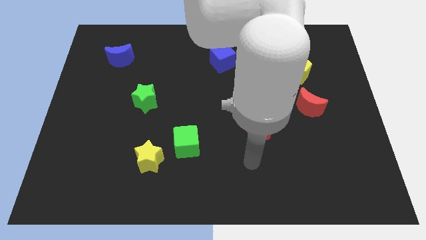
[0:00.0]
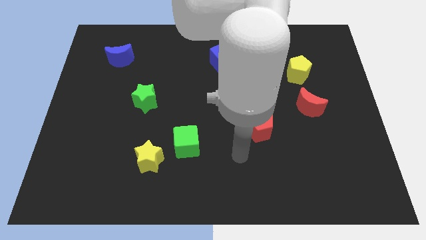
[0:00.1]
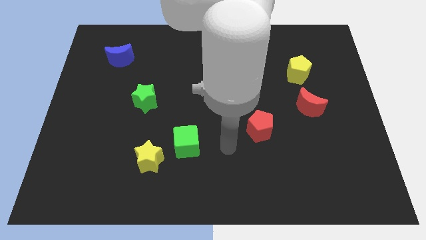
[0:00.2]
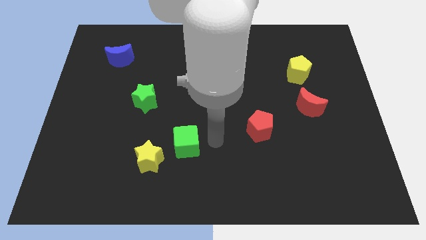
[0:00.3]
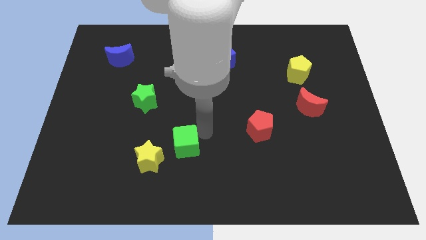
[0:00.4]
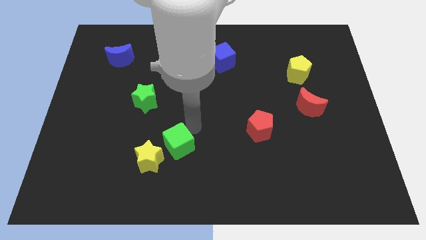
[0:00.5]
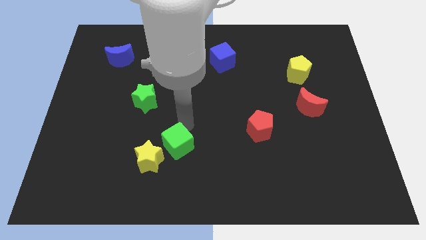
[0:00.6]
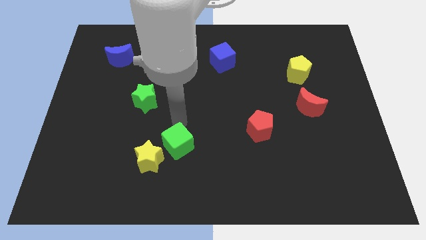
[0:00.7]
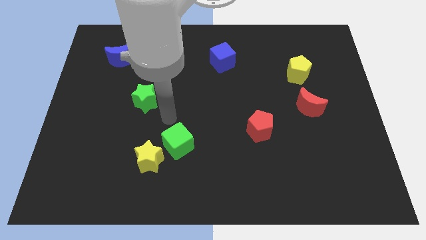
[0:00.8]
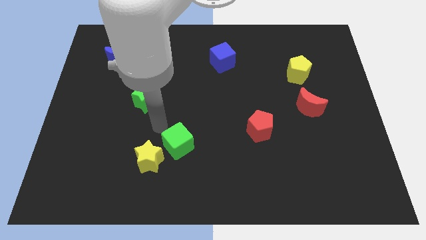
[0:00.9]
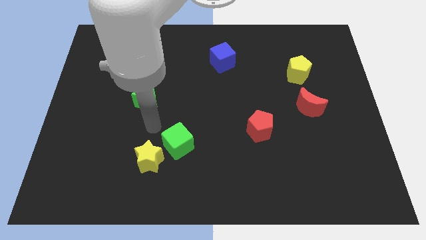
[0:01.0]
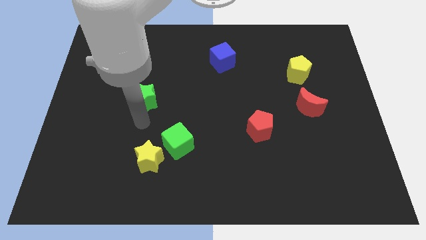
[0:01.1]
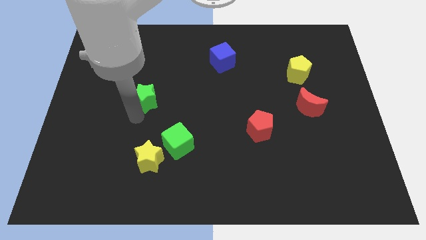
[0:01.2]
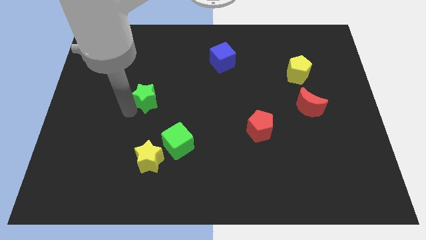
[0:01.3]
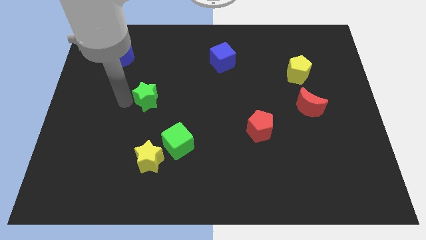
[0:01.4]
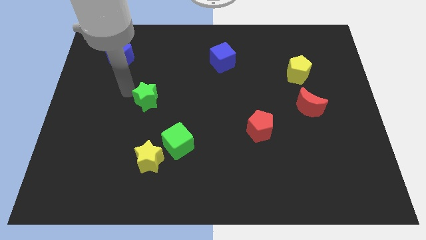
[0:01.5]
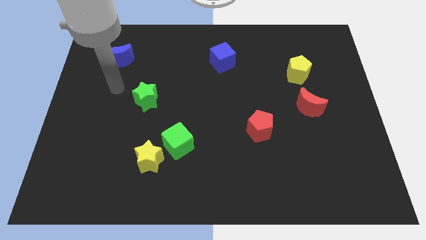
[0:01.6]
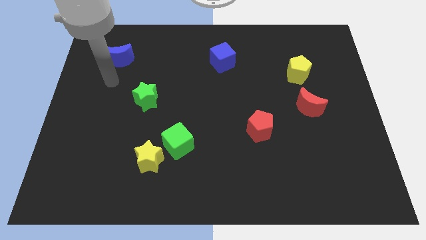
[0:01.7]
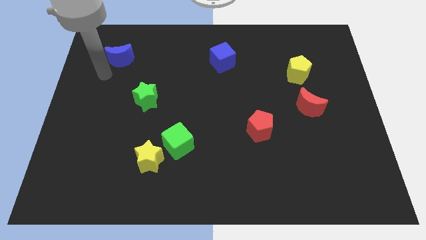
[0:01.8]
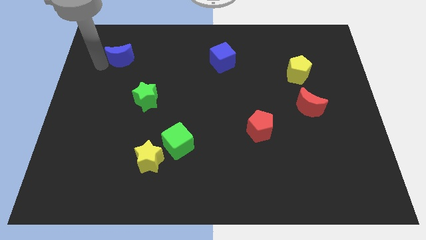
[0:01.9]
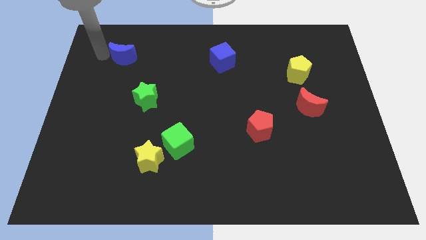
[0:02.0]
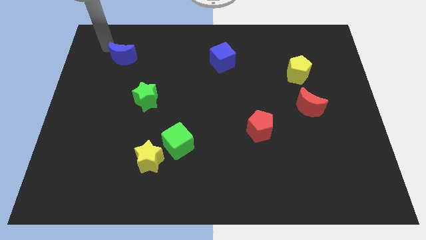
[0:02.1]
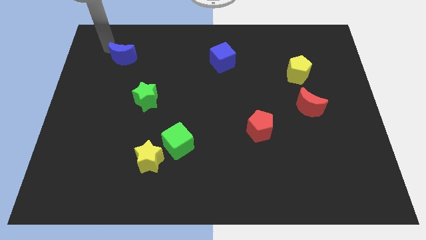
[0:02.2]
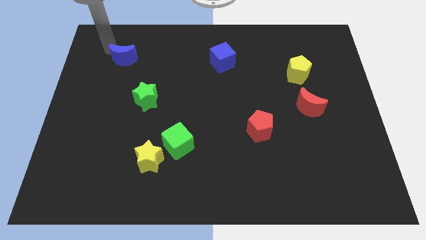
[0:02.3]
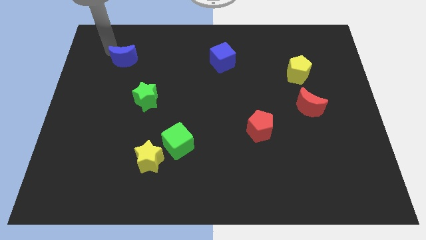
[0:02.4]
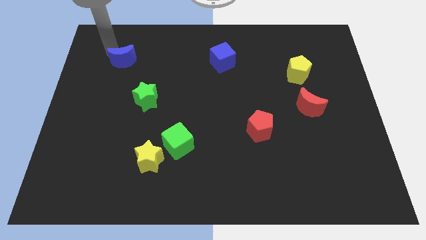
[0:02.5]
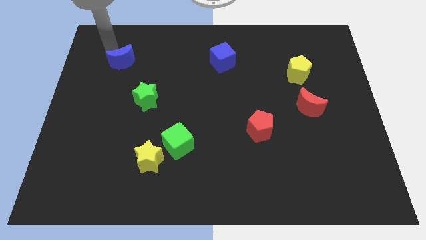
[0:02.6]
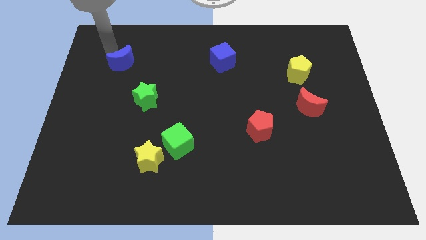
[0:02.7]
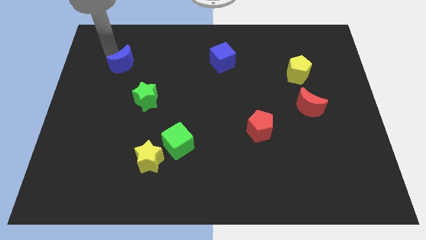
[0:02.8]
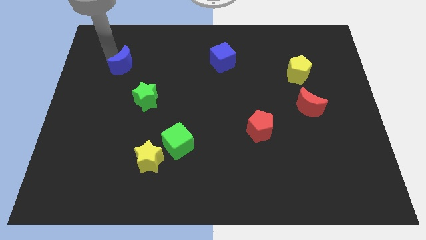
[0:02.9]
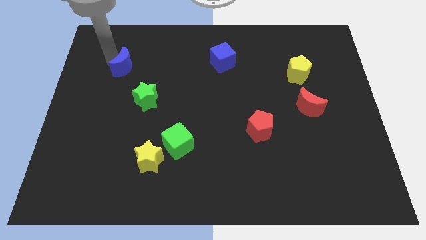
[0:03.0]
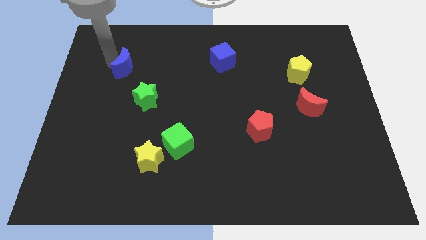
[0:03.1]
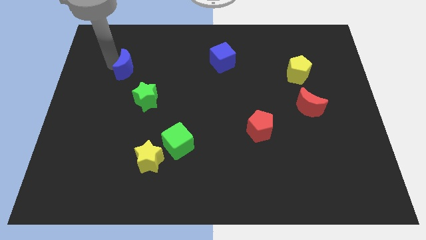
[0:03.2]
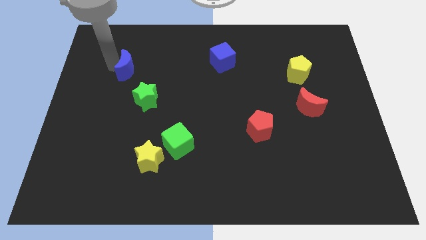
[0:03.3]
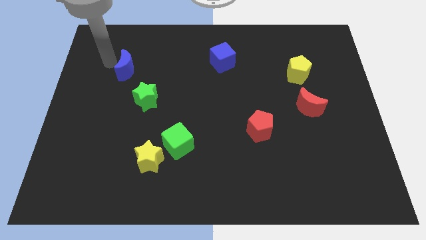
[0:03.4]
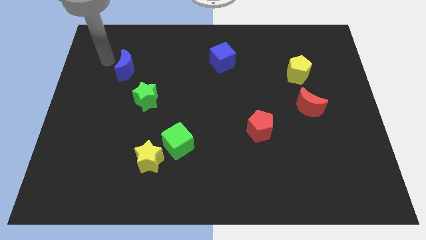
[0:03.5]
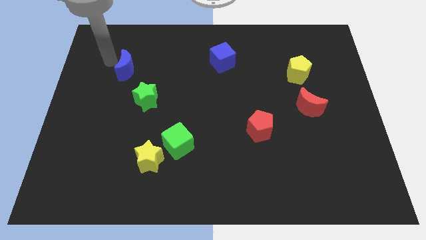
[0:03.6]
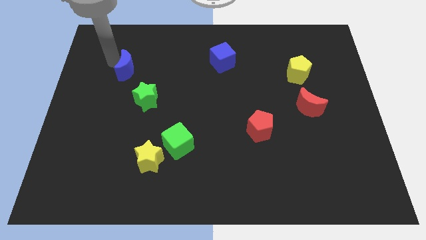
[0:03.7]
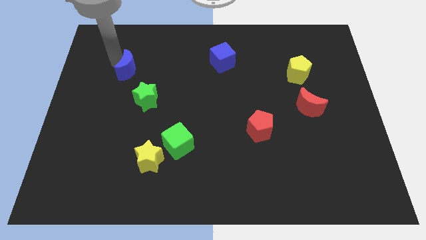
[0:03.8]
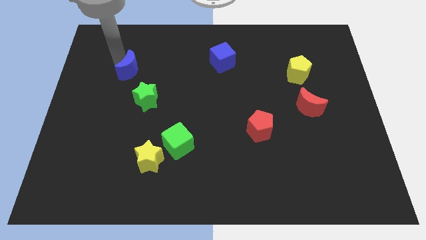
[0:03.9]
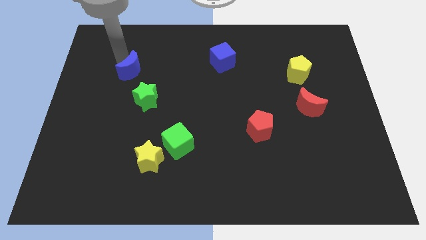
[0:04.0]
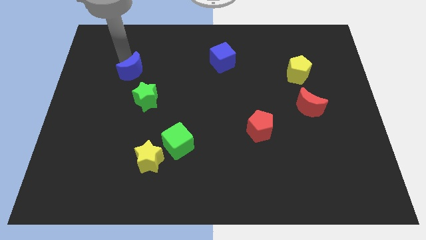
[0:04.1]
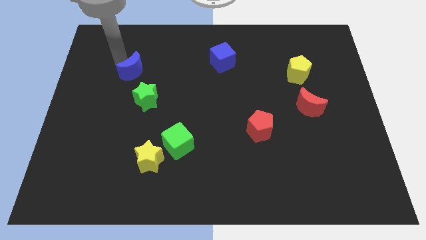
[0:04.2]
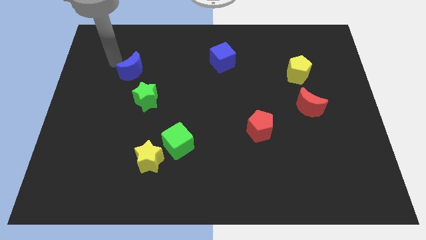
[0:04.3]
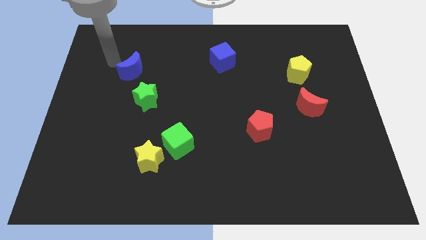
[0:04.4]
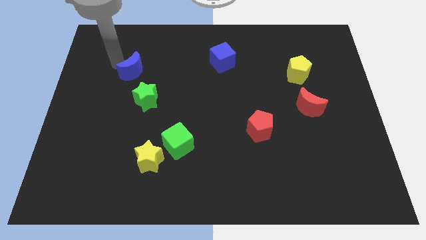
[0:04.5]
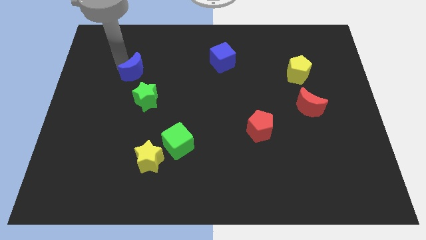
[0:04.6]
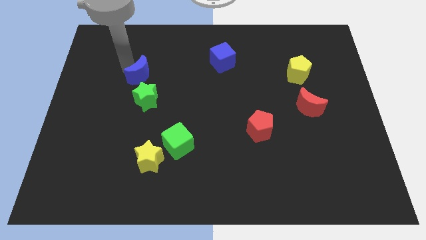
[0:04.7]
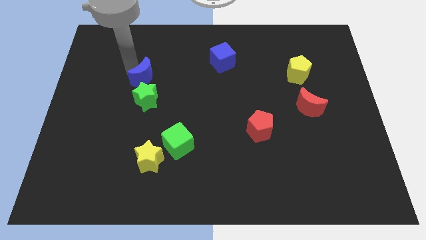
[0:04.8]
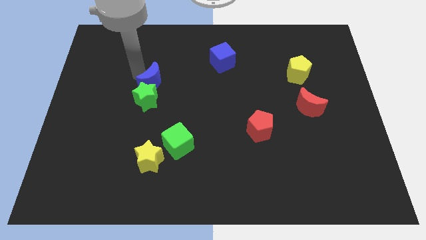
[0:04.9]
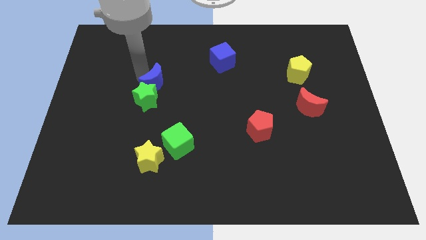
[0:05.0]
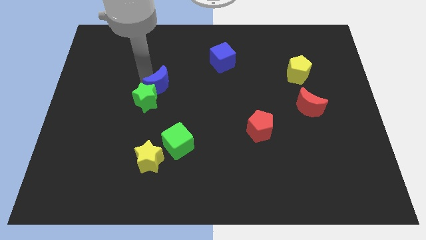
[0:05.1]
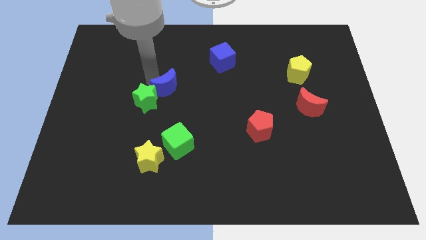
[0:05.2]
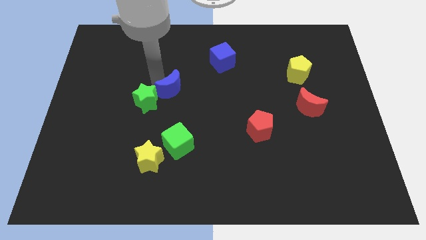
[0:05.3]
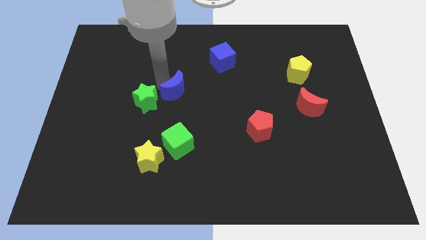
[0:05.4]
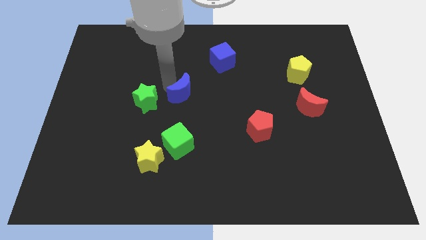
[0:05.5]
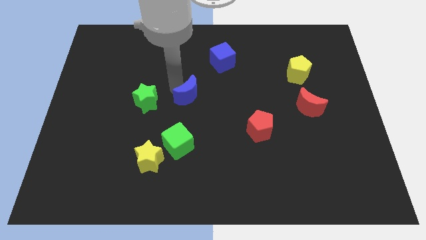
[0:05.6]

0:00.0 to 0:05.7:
slide the blue moon down and then right

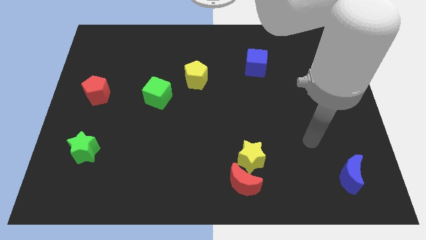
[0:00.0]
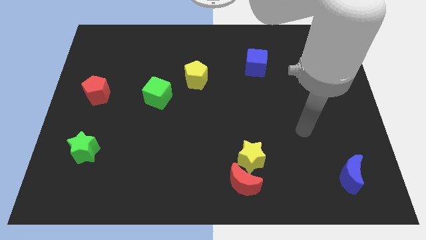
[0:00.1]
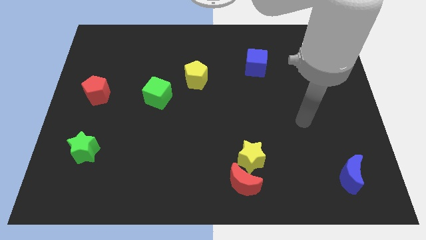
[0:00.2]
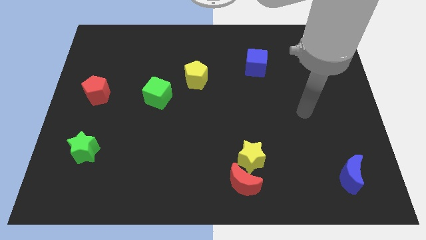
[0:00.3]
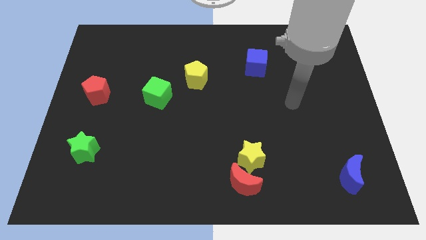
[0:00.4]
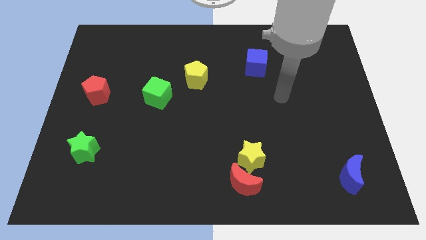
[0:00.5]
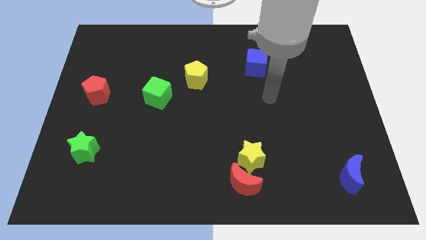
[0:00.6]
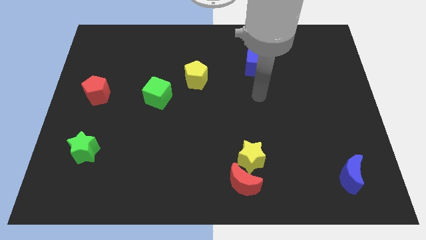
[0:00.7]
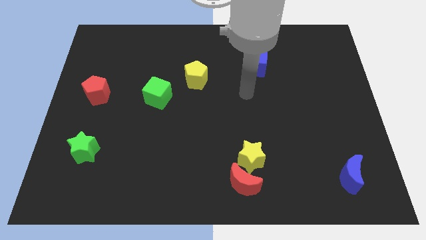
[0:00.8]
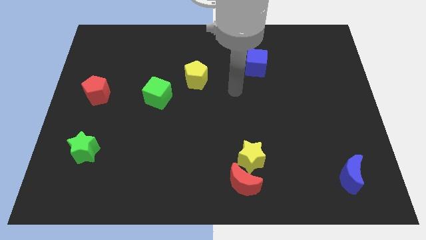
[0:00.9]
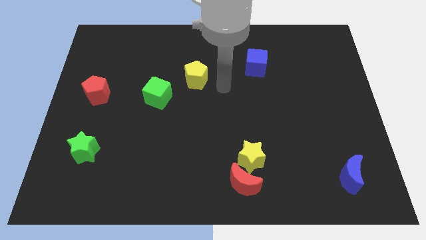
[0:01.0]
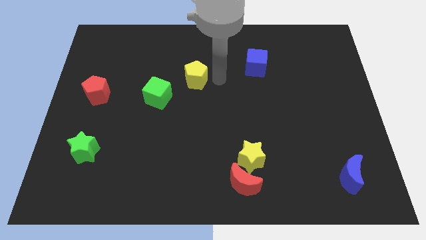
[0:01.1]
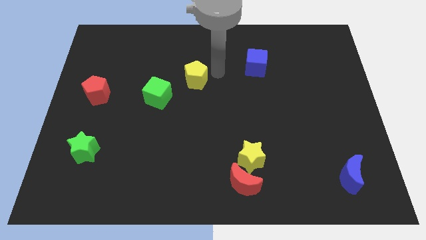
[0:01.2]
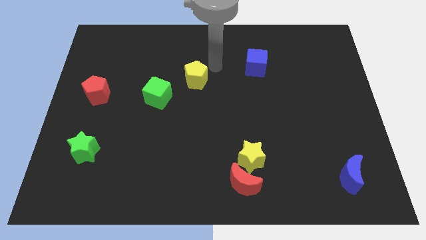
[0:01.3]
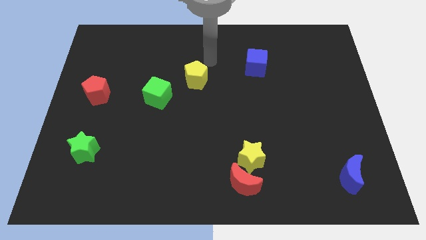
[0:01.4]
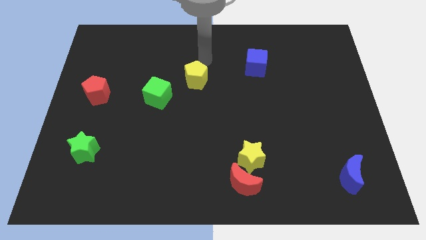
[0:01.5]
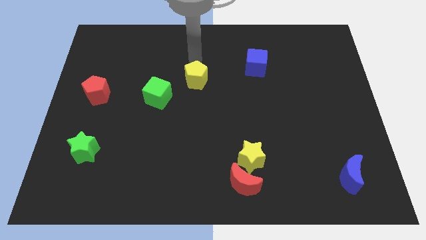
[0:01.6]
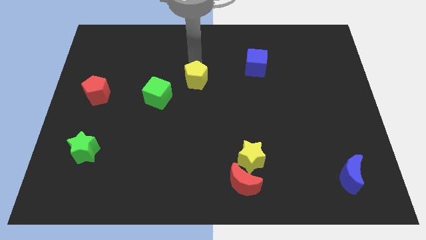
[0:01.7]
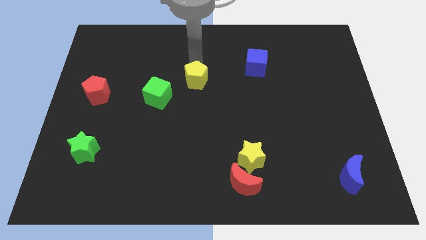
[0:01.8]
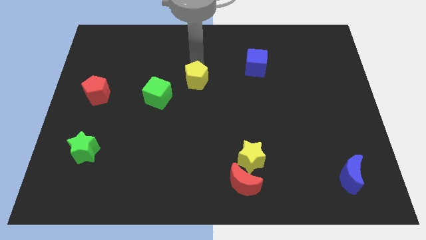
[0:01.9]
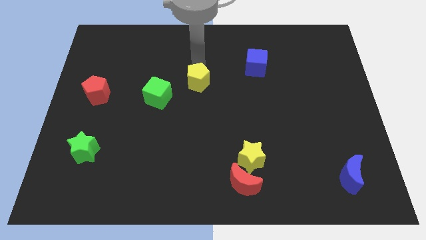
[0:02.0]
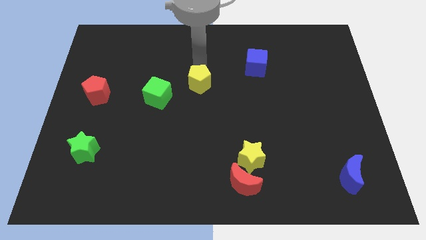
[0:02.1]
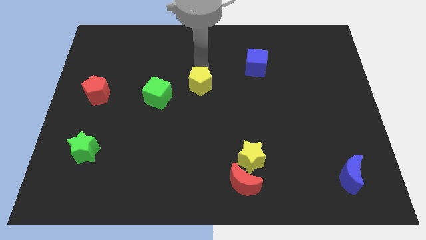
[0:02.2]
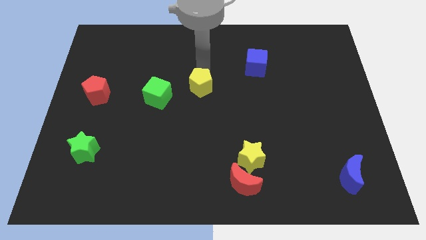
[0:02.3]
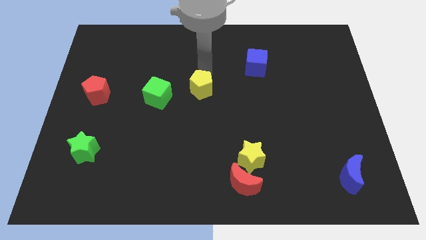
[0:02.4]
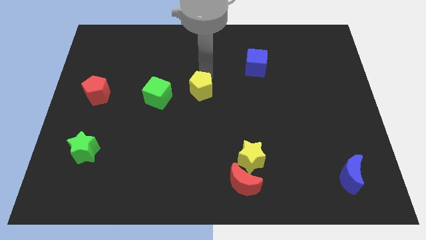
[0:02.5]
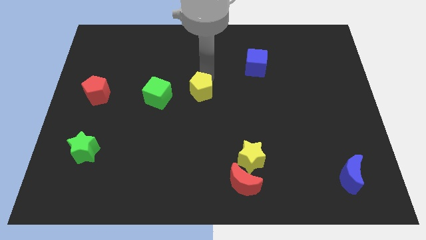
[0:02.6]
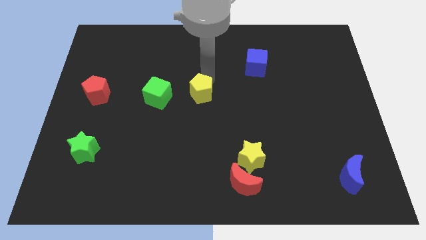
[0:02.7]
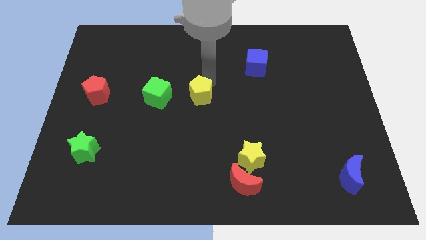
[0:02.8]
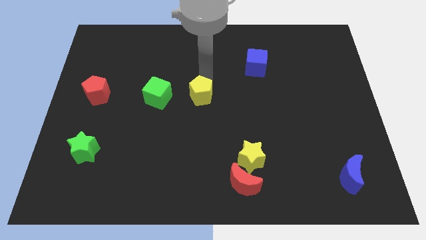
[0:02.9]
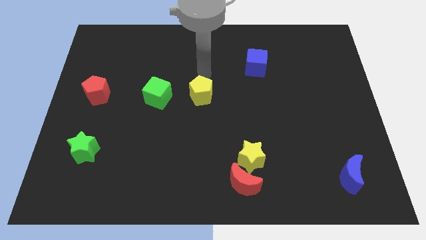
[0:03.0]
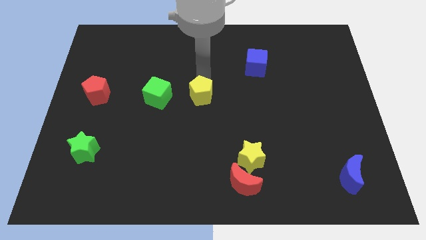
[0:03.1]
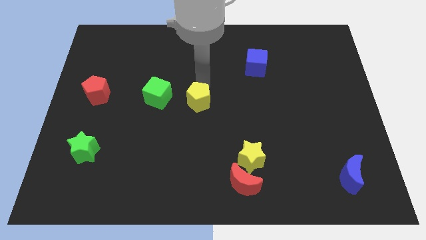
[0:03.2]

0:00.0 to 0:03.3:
push the yellow pentagon a bit downwards
